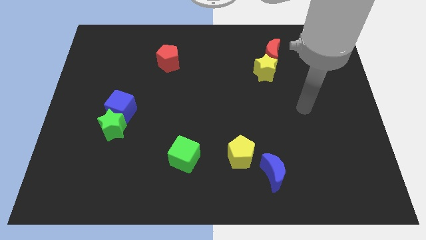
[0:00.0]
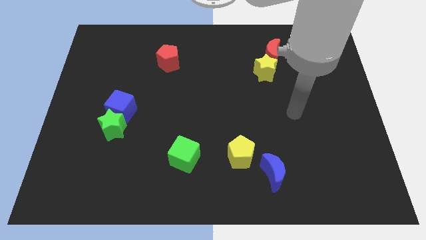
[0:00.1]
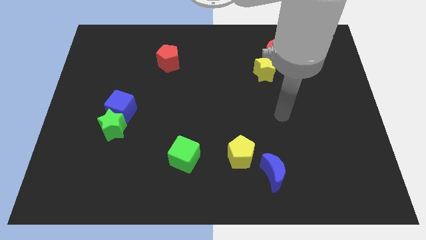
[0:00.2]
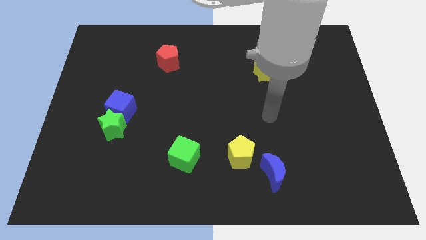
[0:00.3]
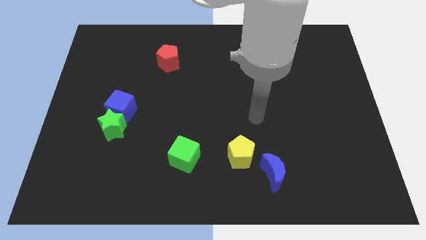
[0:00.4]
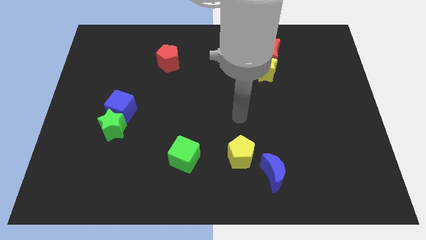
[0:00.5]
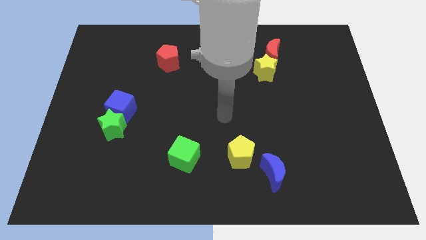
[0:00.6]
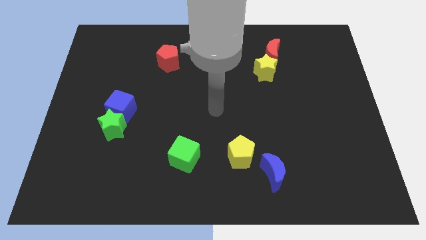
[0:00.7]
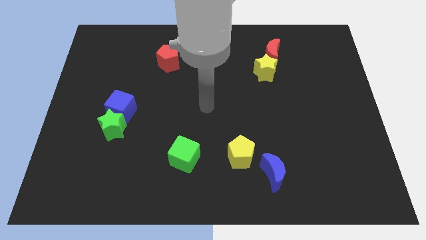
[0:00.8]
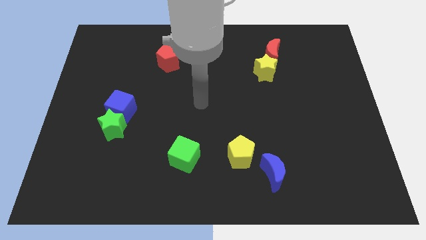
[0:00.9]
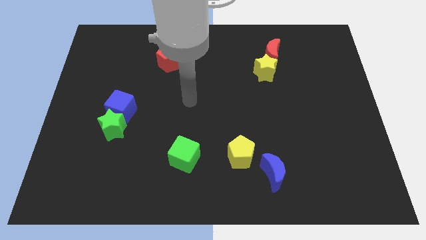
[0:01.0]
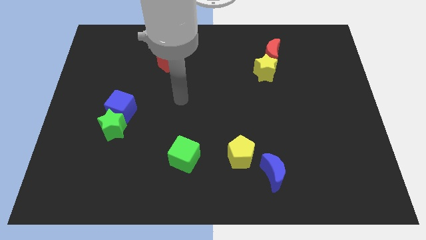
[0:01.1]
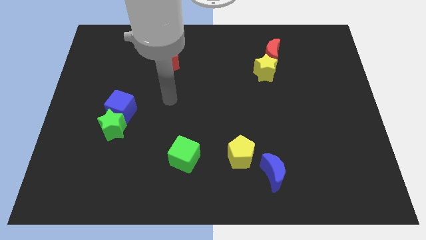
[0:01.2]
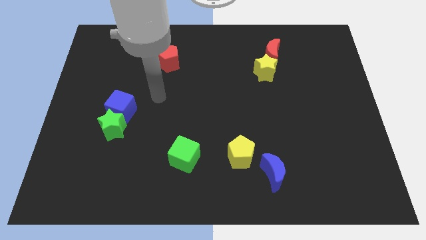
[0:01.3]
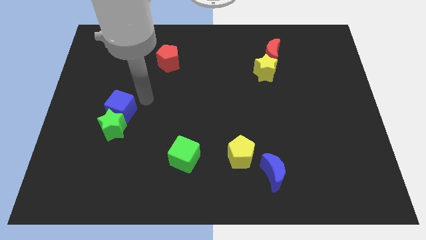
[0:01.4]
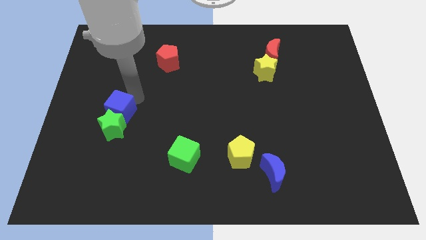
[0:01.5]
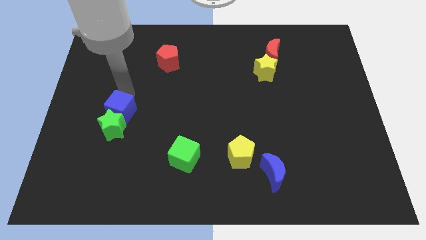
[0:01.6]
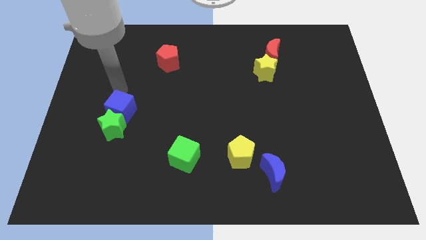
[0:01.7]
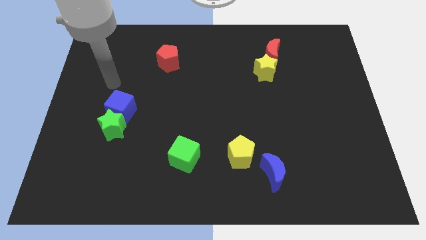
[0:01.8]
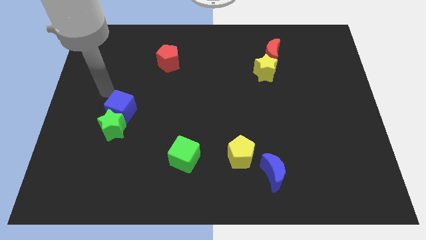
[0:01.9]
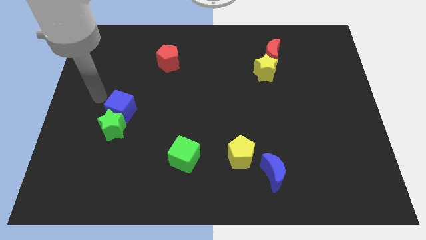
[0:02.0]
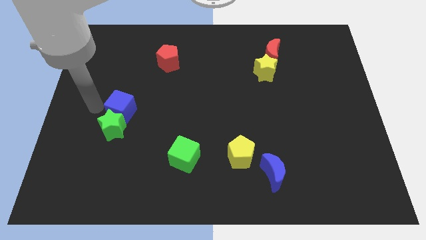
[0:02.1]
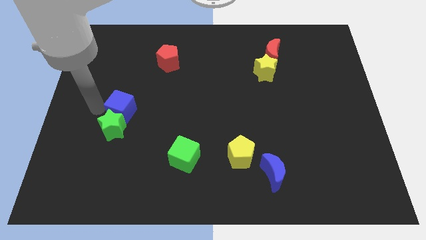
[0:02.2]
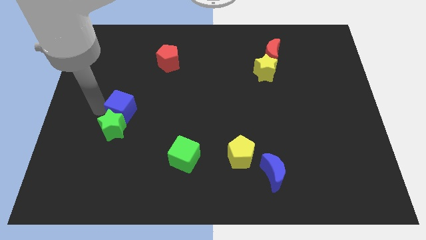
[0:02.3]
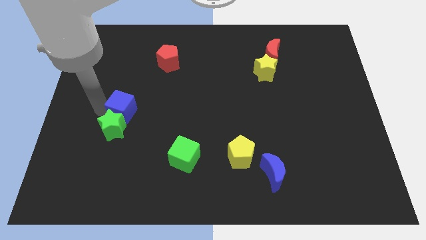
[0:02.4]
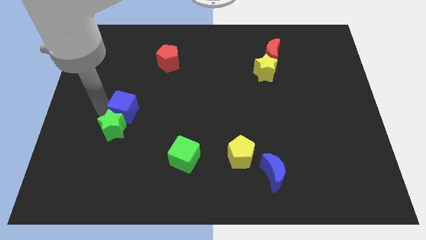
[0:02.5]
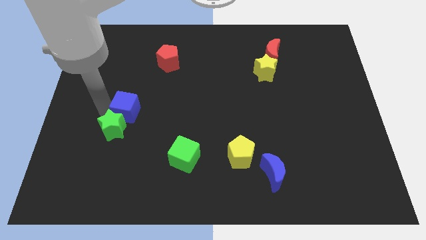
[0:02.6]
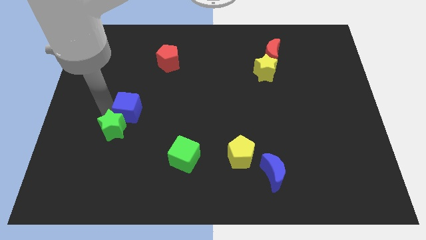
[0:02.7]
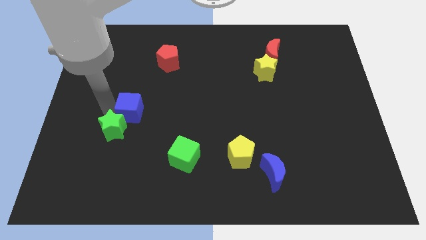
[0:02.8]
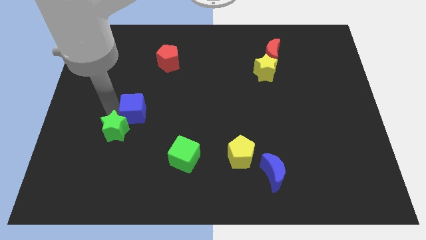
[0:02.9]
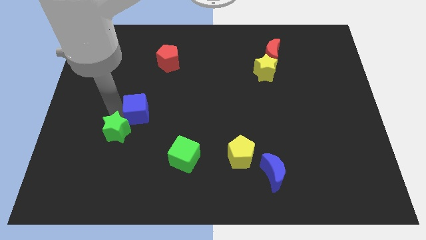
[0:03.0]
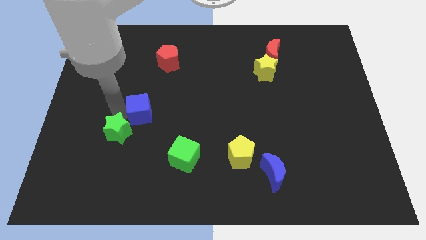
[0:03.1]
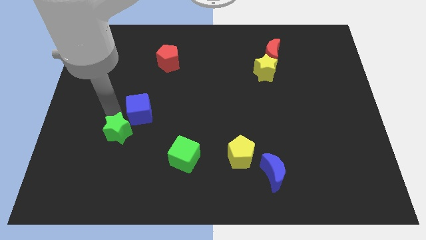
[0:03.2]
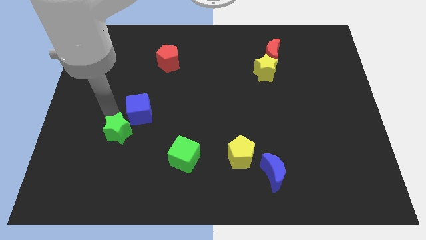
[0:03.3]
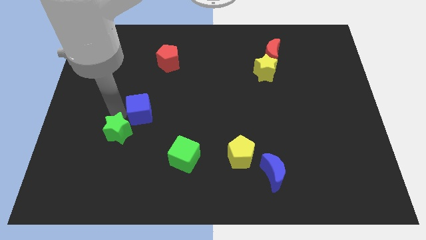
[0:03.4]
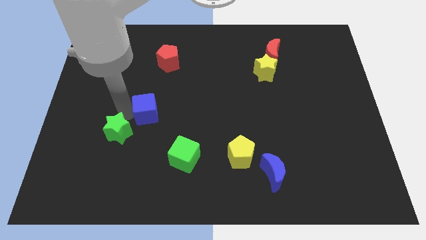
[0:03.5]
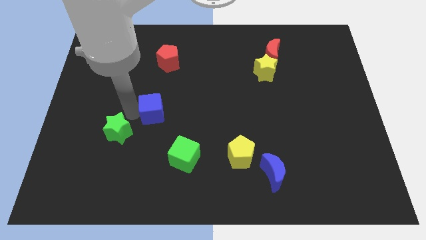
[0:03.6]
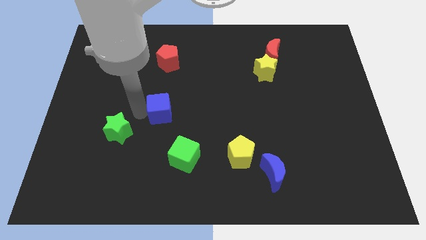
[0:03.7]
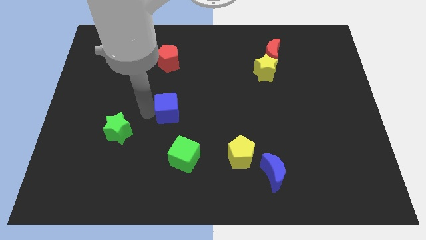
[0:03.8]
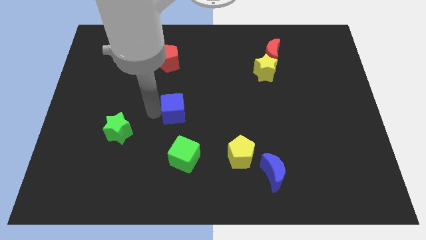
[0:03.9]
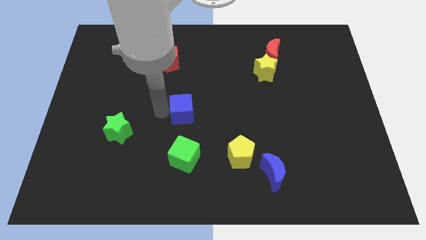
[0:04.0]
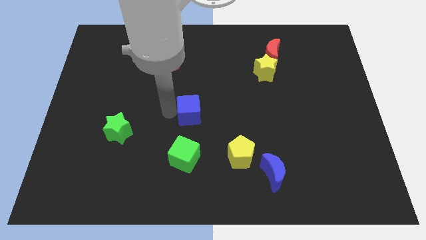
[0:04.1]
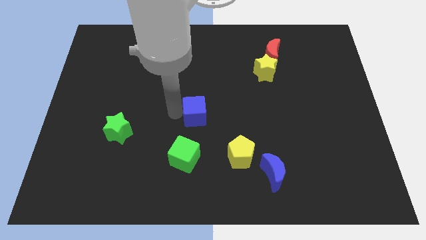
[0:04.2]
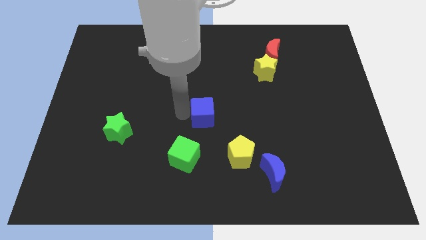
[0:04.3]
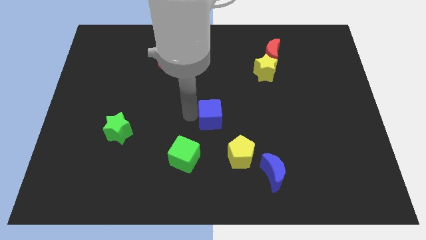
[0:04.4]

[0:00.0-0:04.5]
push the blue cube right

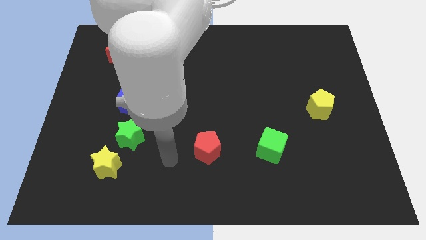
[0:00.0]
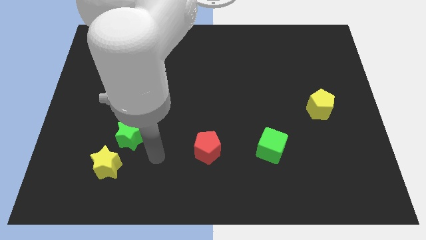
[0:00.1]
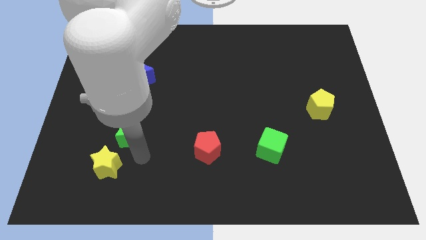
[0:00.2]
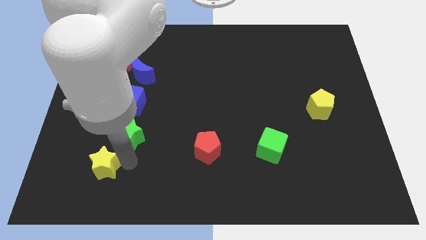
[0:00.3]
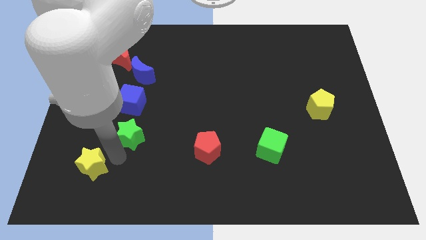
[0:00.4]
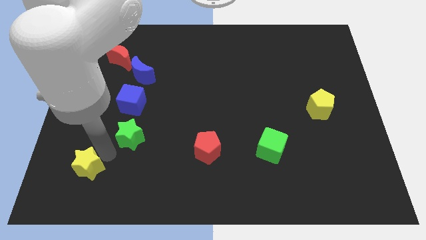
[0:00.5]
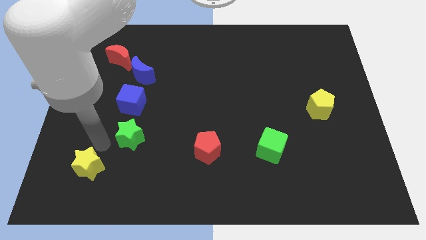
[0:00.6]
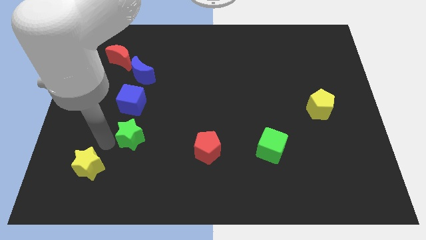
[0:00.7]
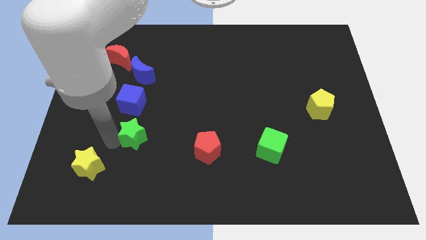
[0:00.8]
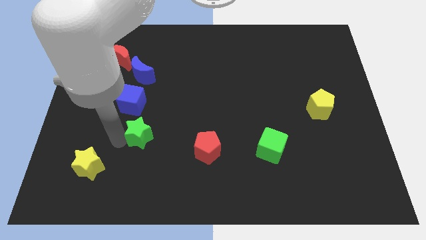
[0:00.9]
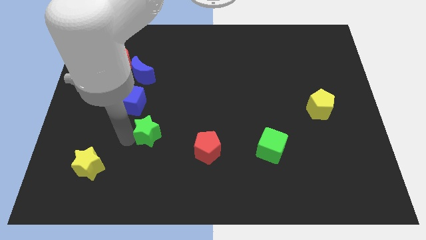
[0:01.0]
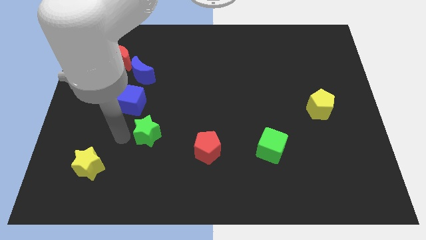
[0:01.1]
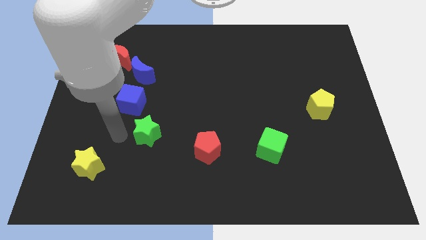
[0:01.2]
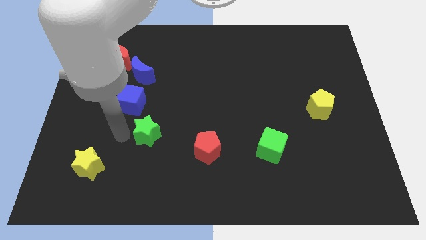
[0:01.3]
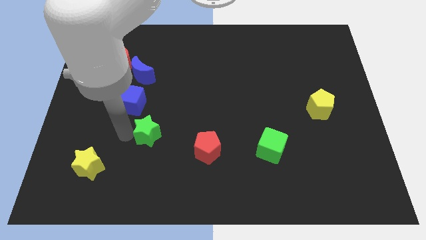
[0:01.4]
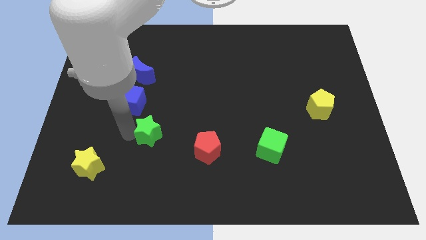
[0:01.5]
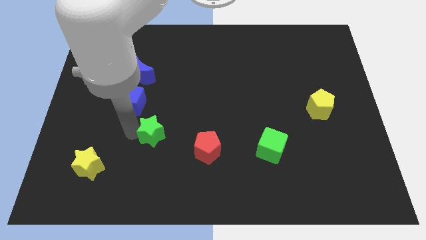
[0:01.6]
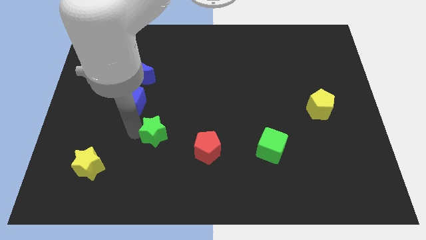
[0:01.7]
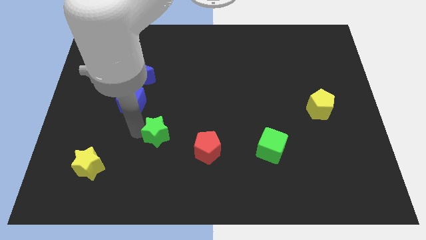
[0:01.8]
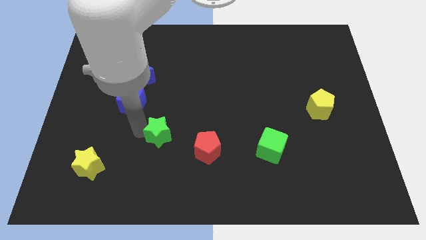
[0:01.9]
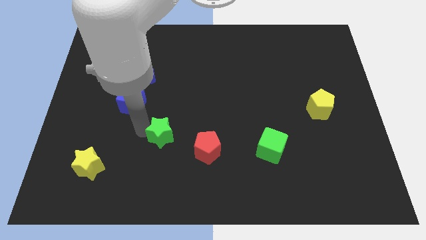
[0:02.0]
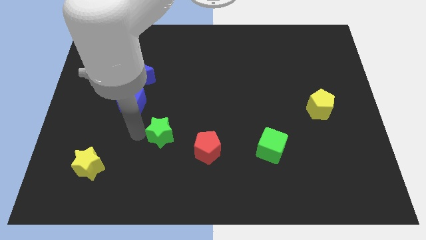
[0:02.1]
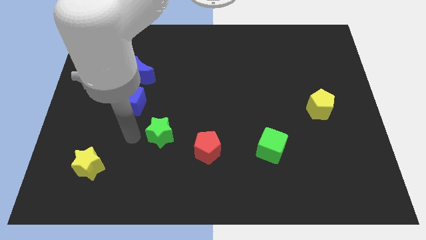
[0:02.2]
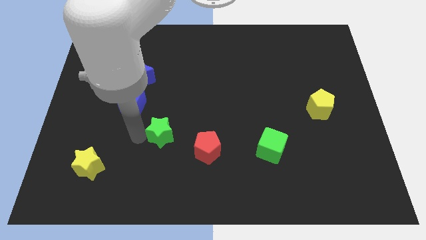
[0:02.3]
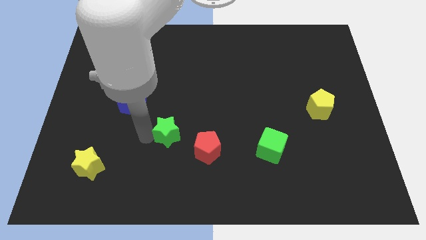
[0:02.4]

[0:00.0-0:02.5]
move the green star a little bit to the right

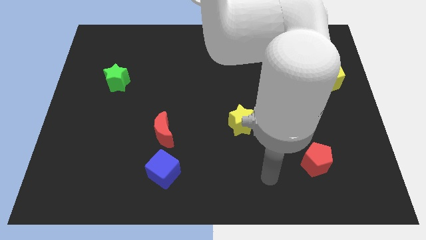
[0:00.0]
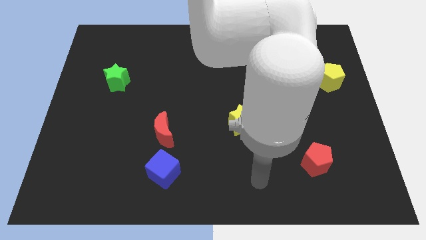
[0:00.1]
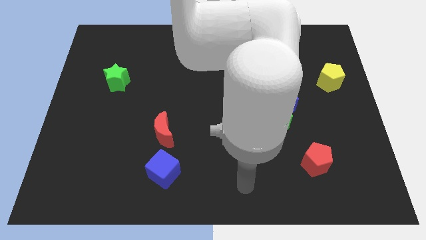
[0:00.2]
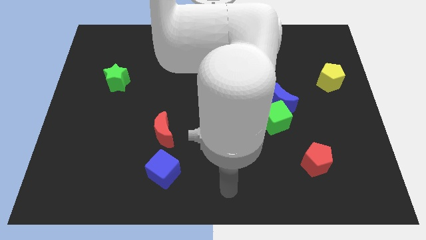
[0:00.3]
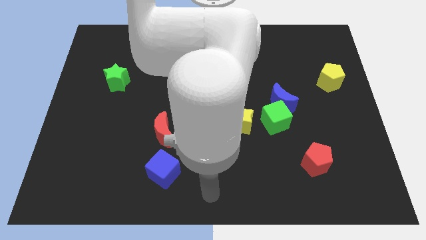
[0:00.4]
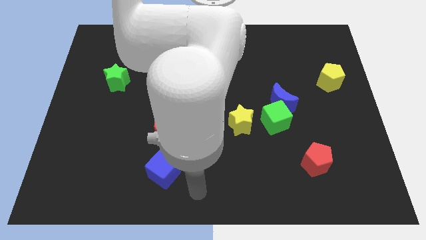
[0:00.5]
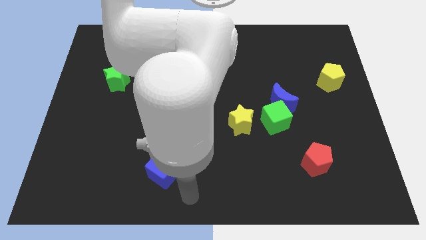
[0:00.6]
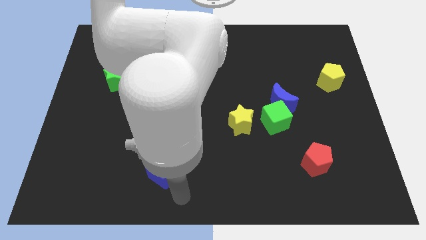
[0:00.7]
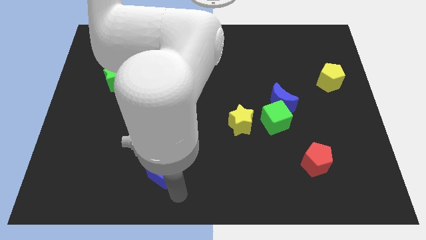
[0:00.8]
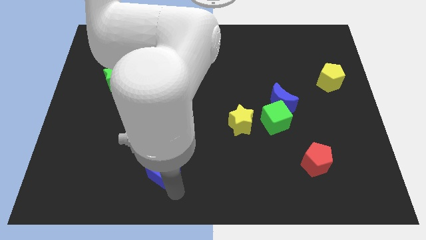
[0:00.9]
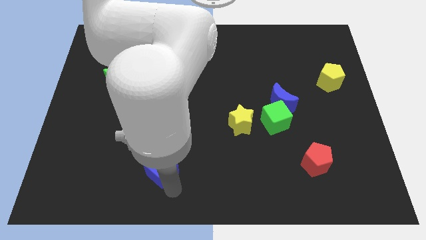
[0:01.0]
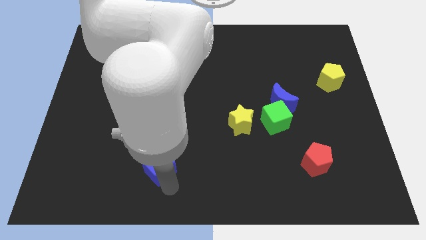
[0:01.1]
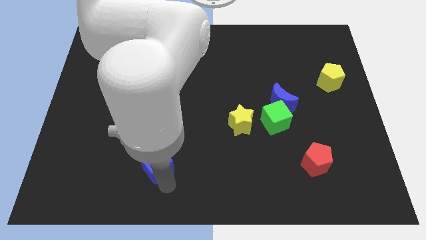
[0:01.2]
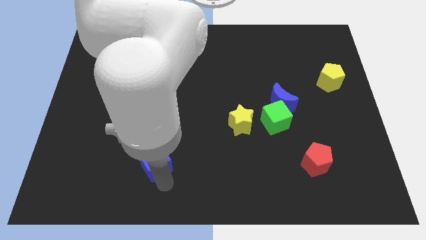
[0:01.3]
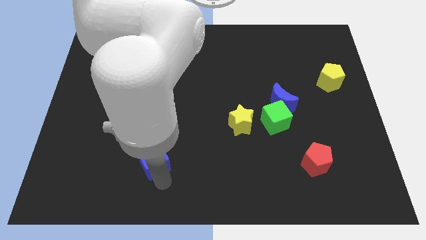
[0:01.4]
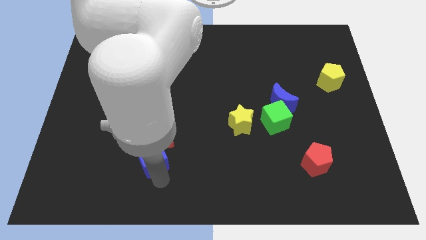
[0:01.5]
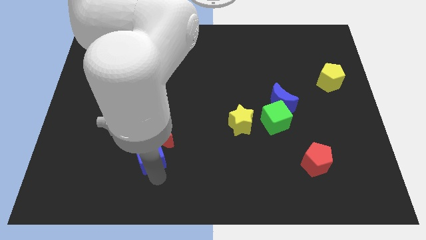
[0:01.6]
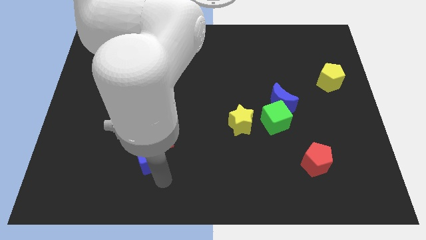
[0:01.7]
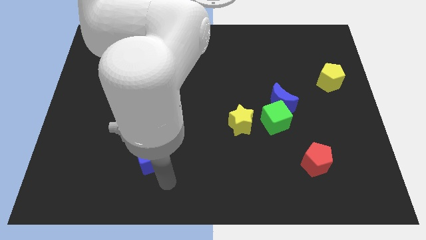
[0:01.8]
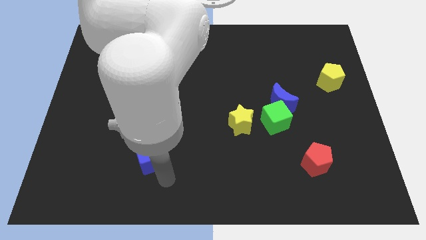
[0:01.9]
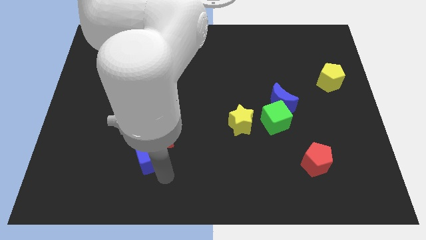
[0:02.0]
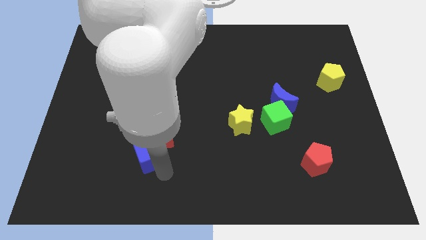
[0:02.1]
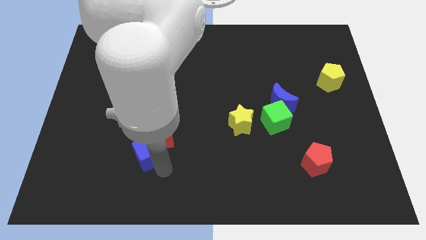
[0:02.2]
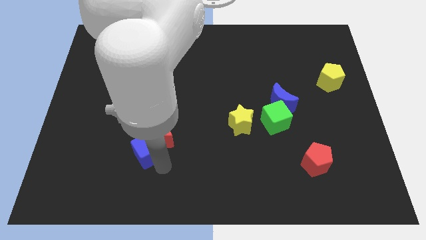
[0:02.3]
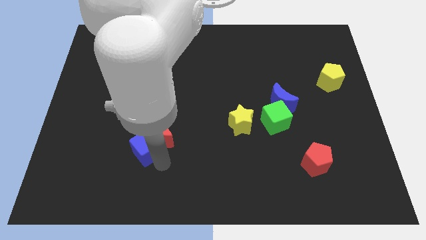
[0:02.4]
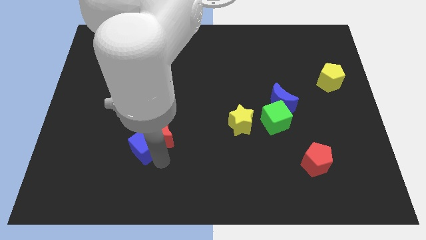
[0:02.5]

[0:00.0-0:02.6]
slide the blue cube upwards and left diagonally a little
